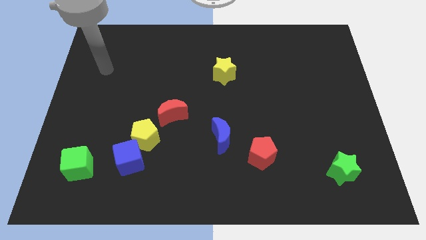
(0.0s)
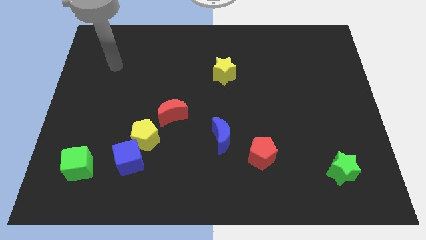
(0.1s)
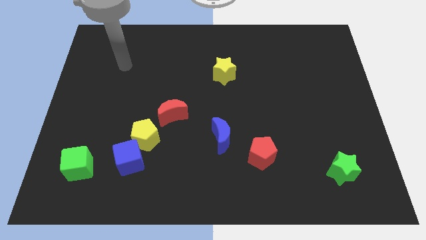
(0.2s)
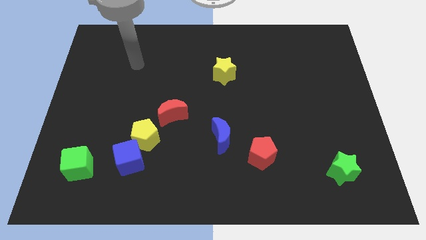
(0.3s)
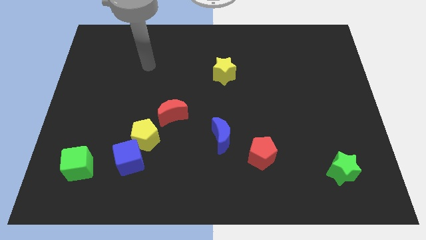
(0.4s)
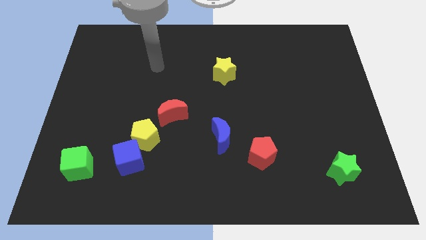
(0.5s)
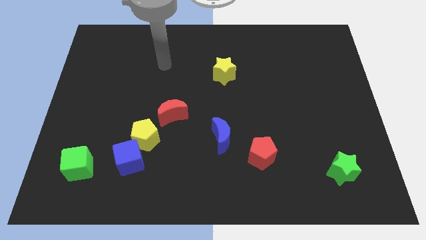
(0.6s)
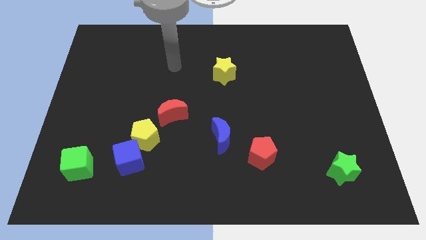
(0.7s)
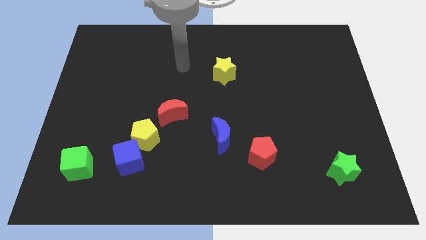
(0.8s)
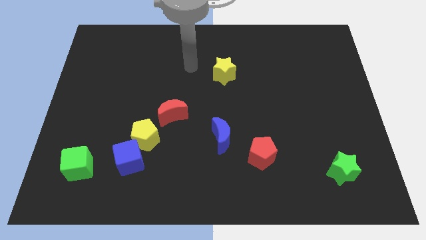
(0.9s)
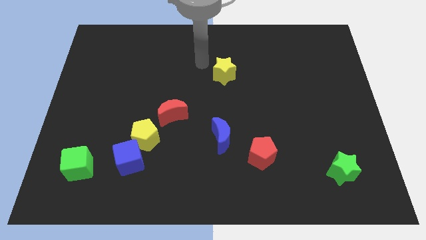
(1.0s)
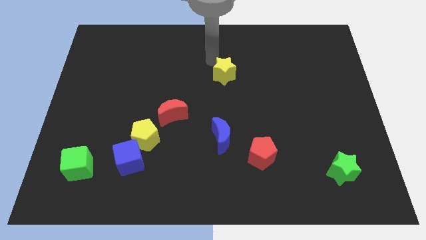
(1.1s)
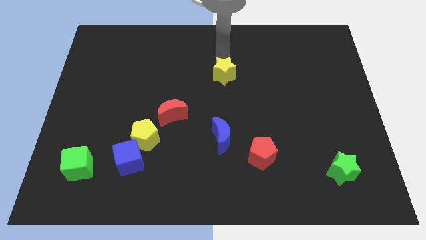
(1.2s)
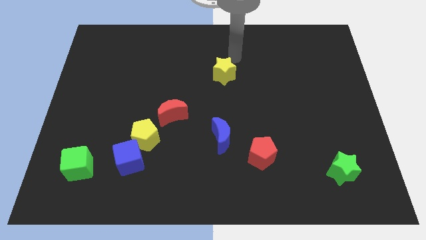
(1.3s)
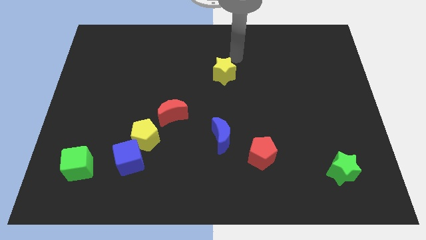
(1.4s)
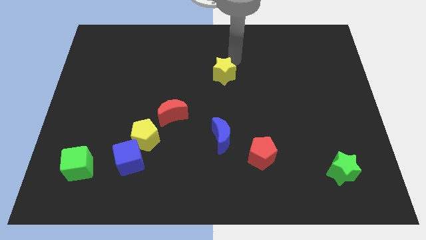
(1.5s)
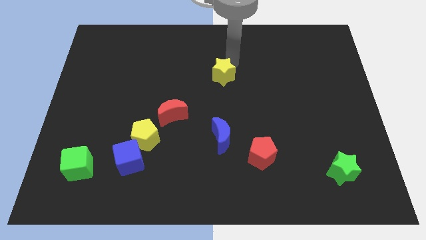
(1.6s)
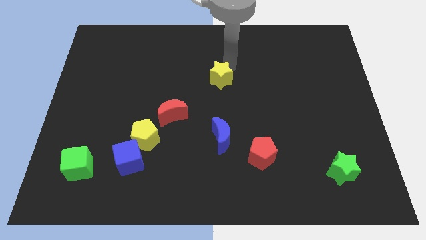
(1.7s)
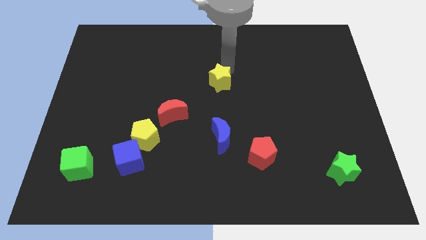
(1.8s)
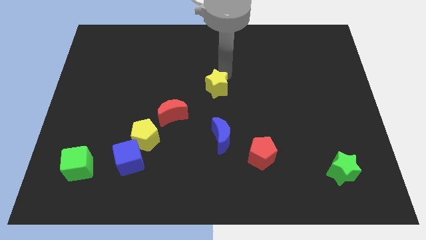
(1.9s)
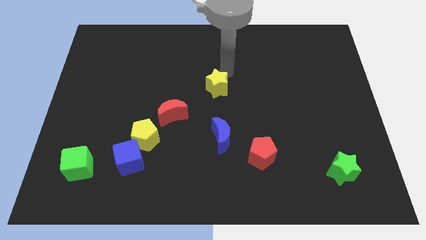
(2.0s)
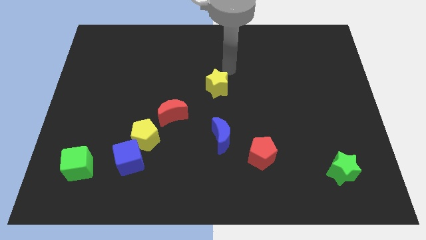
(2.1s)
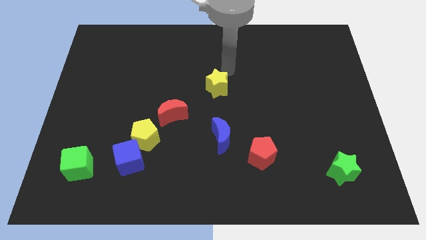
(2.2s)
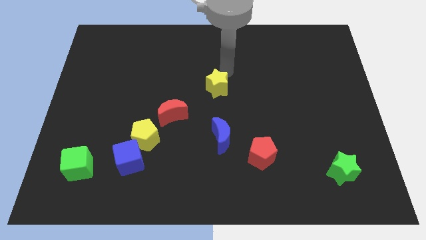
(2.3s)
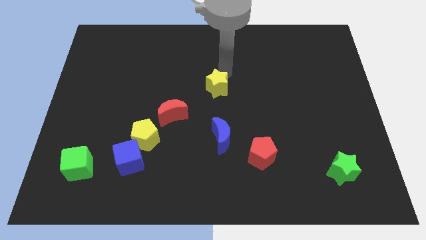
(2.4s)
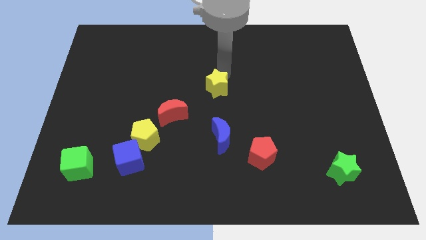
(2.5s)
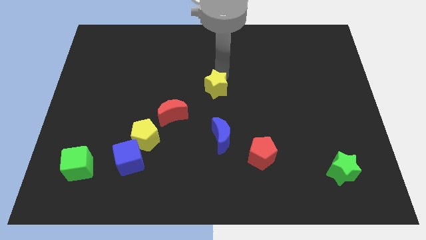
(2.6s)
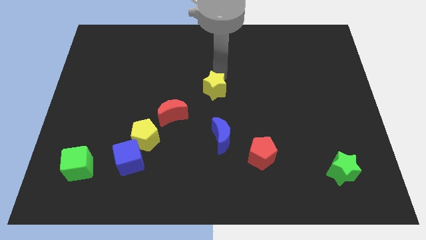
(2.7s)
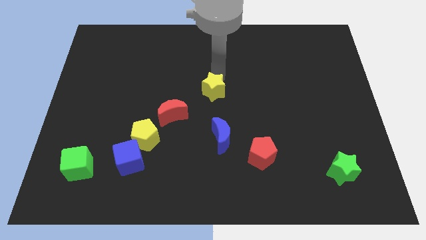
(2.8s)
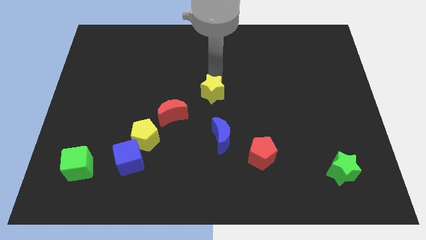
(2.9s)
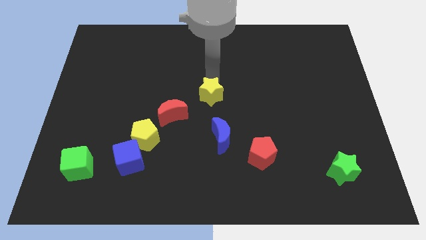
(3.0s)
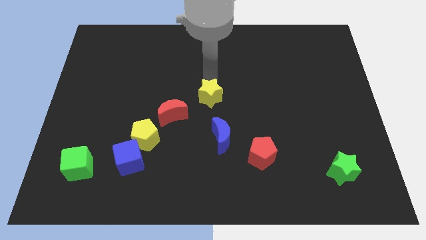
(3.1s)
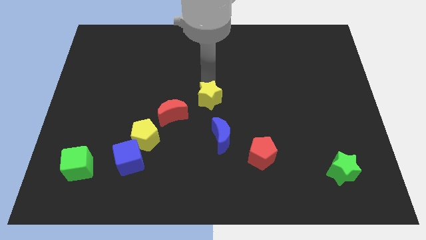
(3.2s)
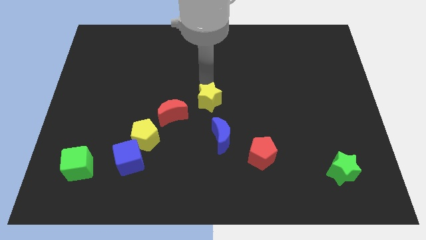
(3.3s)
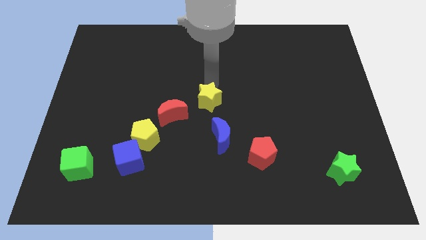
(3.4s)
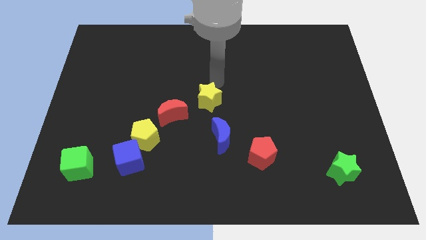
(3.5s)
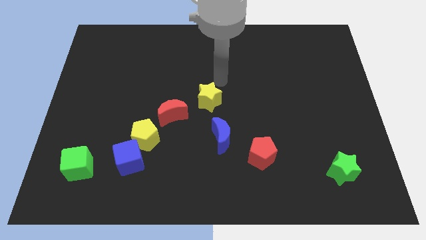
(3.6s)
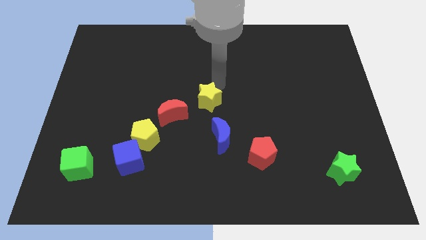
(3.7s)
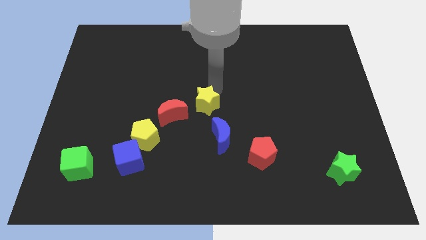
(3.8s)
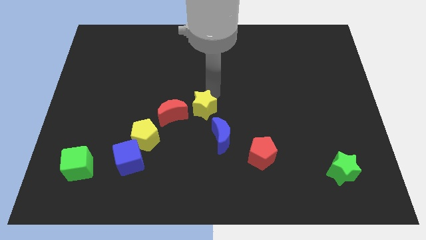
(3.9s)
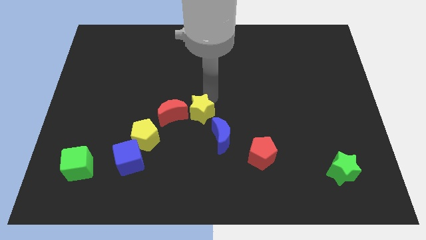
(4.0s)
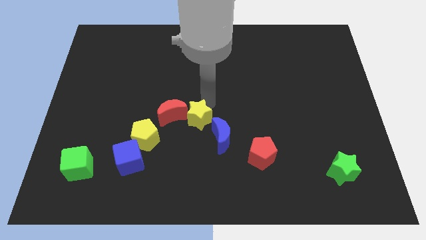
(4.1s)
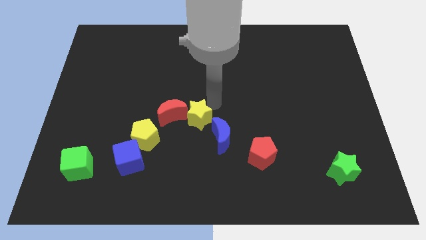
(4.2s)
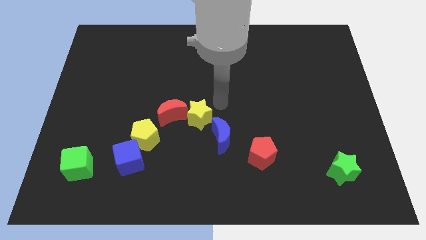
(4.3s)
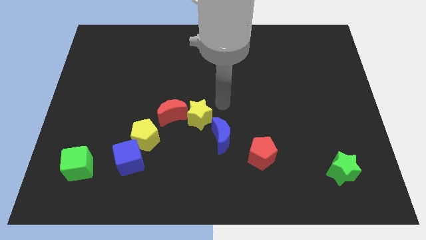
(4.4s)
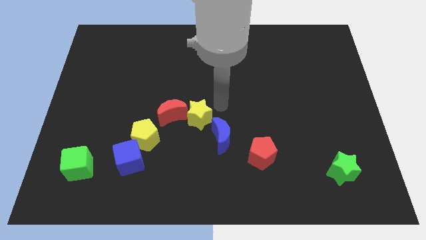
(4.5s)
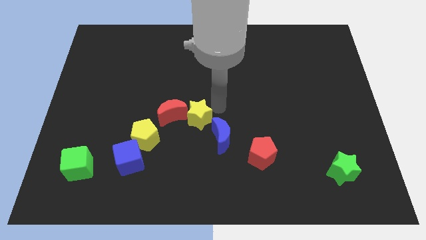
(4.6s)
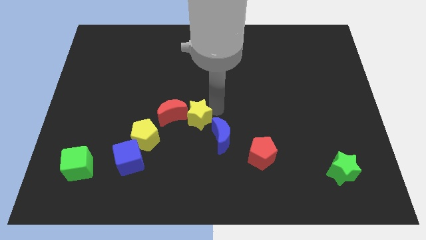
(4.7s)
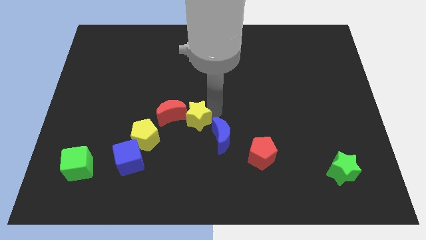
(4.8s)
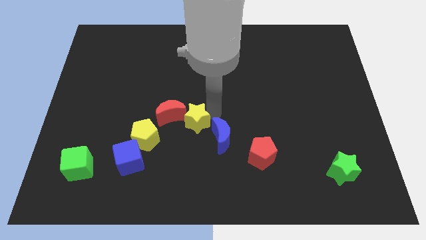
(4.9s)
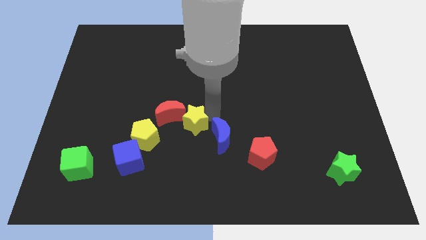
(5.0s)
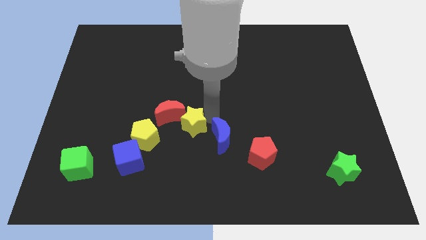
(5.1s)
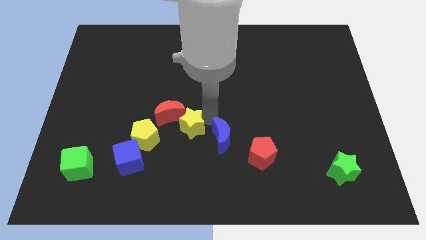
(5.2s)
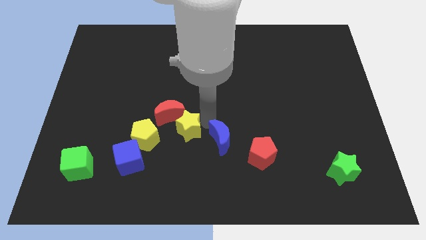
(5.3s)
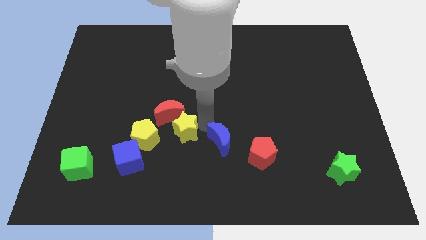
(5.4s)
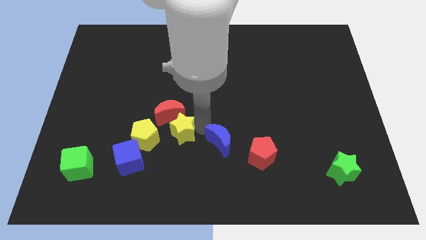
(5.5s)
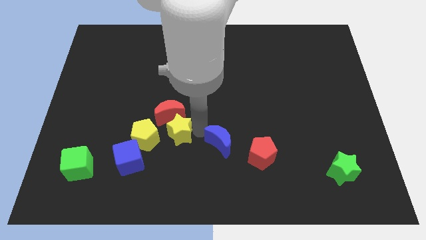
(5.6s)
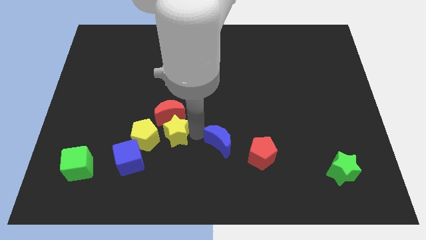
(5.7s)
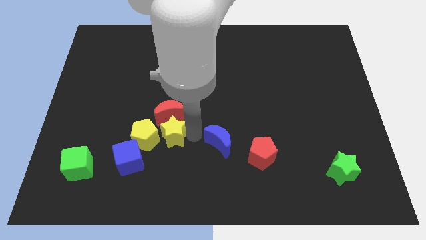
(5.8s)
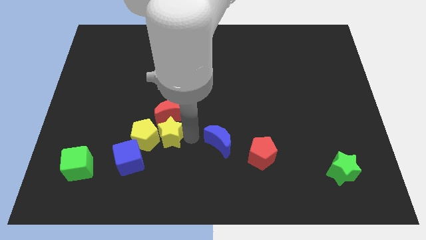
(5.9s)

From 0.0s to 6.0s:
move the yellow star close to the yellow pentagon

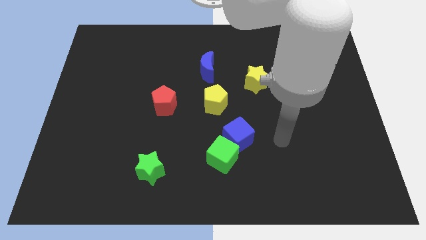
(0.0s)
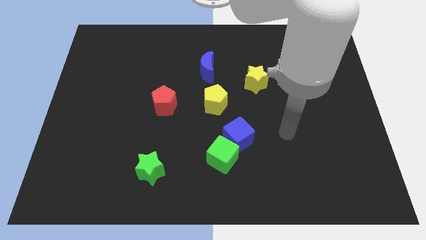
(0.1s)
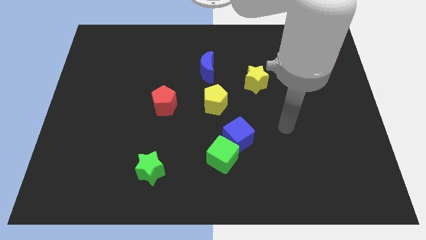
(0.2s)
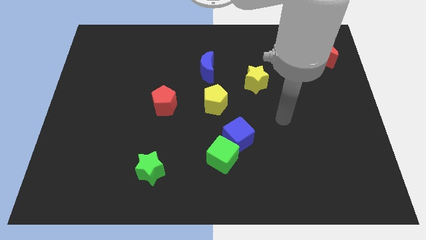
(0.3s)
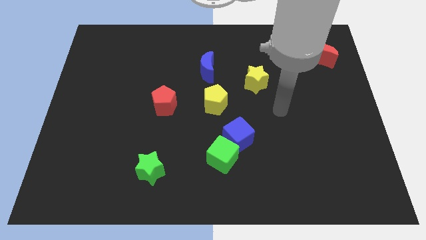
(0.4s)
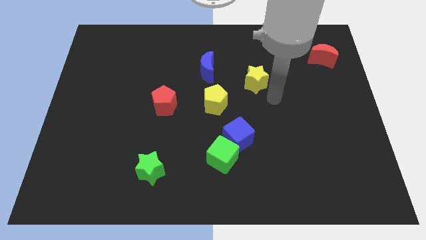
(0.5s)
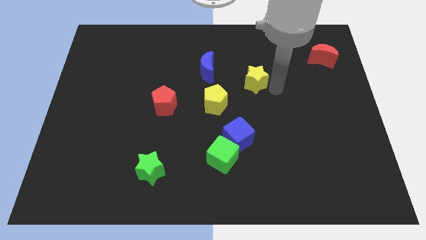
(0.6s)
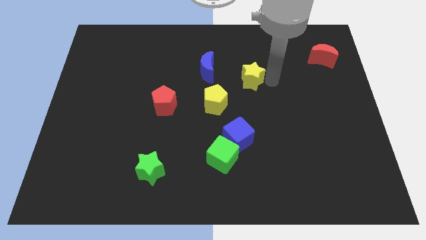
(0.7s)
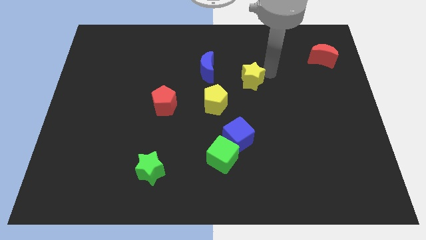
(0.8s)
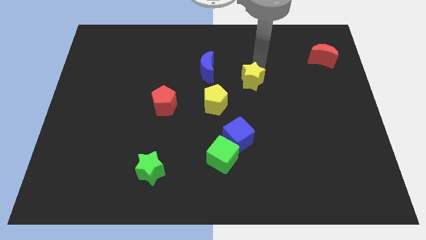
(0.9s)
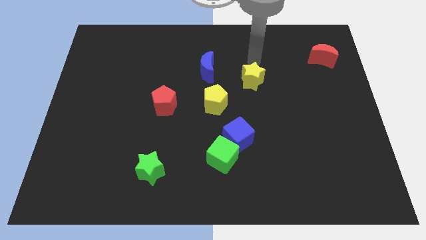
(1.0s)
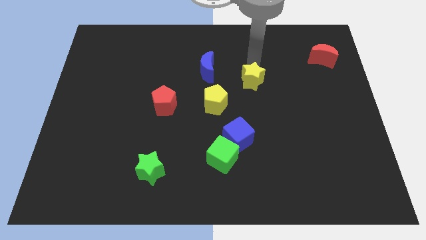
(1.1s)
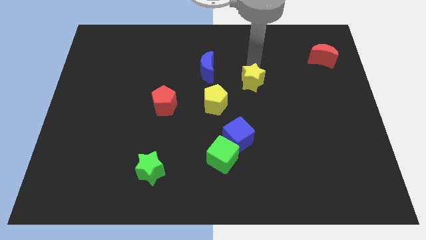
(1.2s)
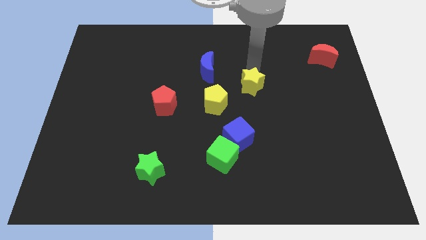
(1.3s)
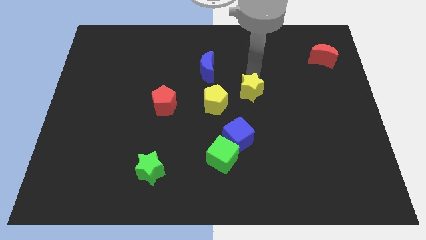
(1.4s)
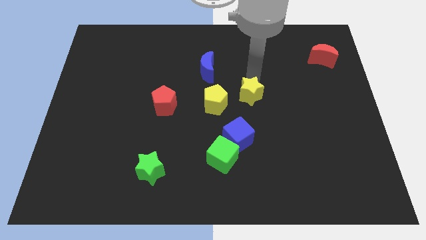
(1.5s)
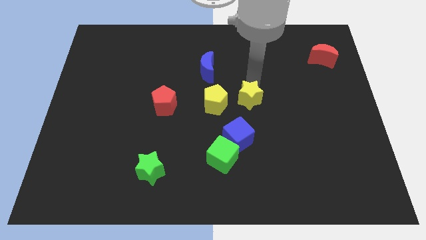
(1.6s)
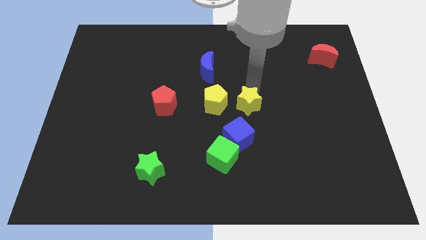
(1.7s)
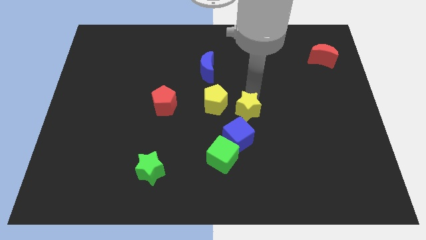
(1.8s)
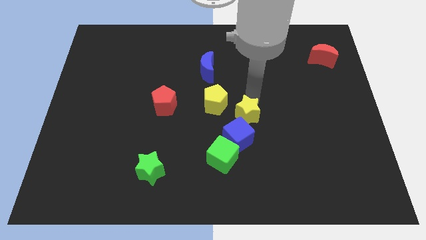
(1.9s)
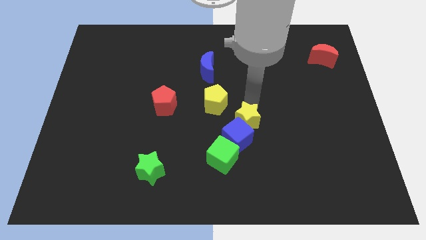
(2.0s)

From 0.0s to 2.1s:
put the yellow star close to the blue cube

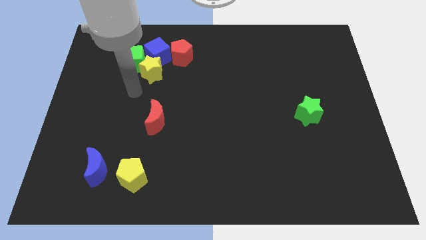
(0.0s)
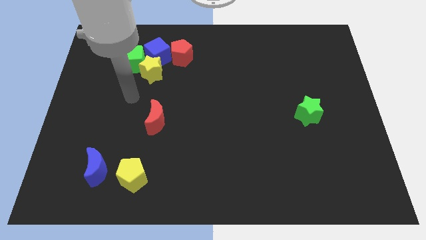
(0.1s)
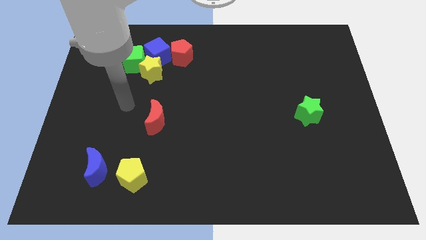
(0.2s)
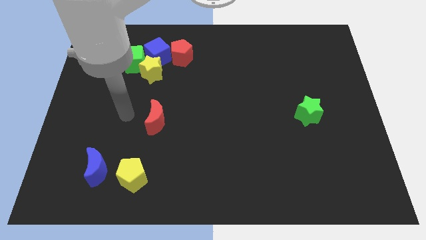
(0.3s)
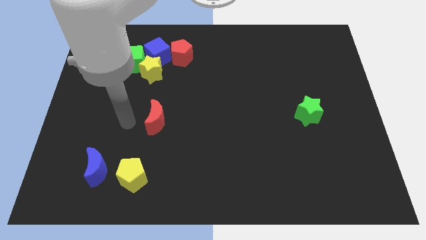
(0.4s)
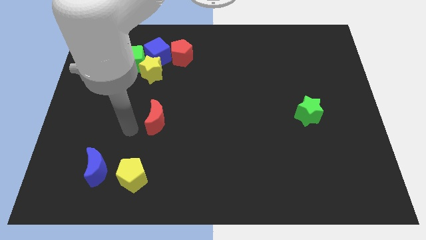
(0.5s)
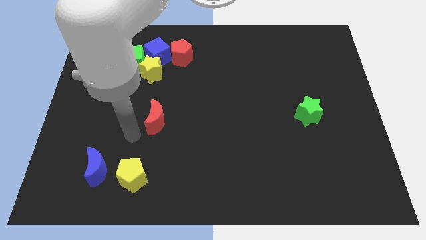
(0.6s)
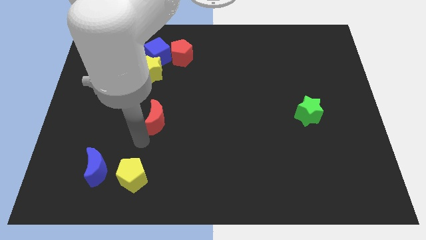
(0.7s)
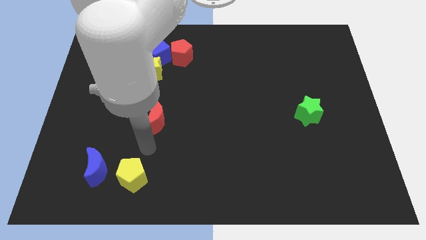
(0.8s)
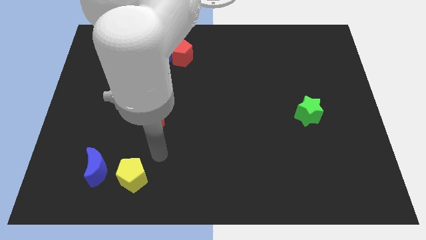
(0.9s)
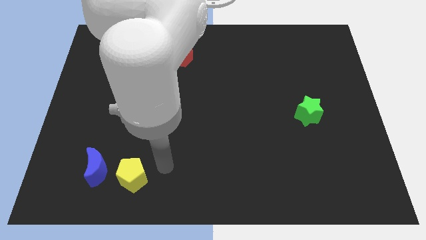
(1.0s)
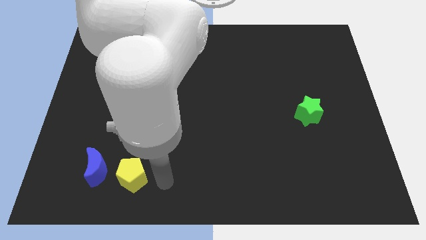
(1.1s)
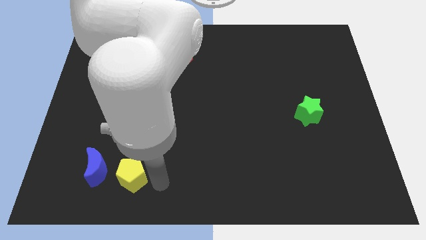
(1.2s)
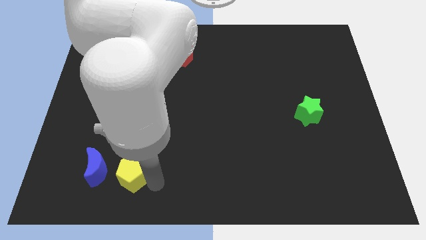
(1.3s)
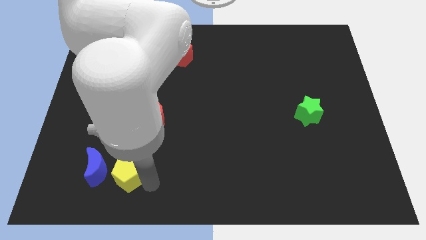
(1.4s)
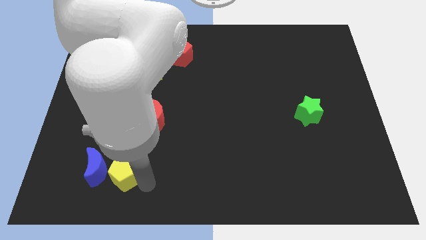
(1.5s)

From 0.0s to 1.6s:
push the yellow pentagon to the blue moon
